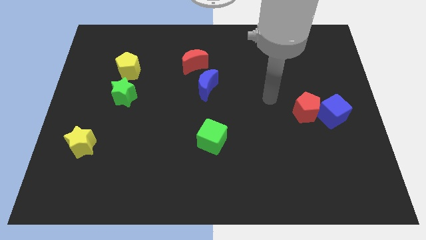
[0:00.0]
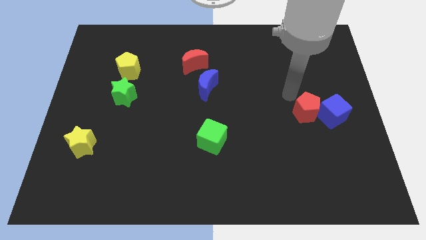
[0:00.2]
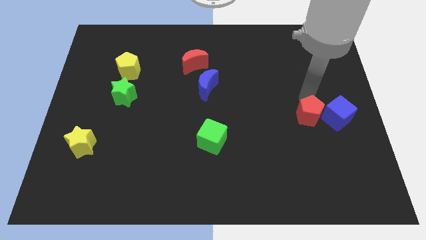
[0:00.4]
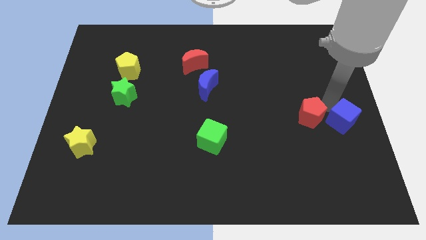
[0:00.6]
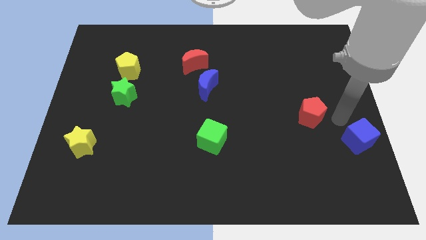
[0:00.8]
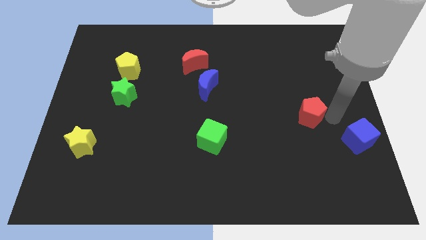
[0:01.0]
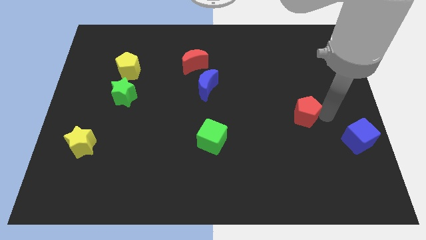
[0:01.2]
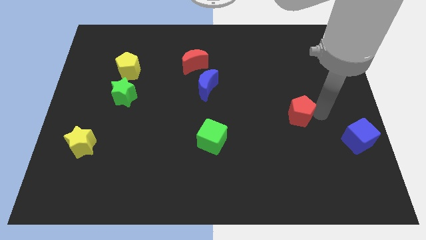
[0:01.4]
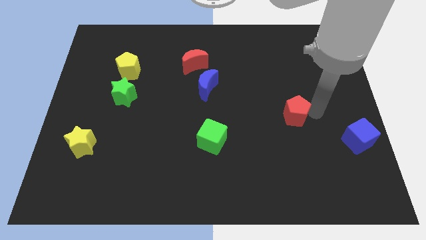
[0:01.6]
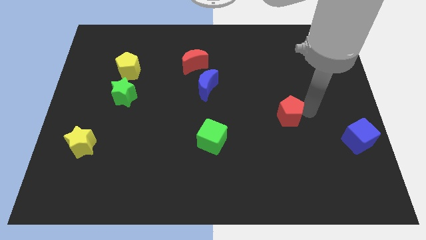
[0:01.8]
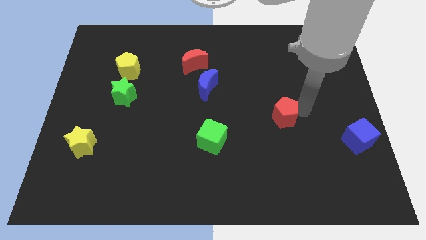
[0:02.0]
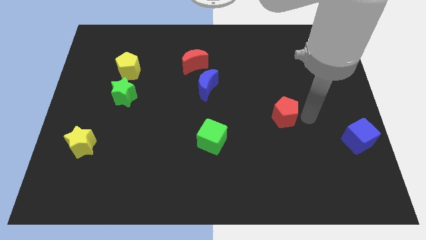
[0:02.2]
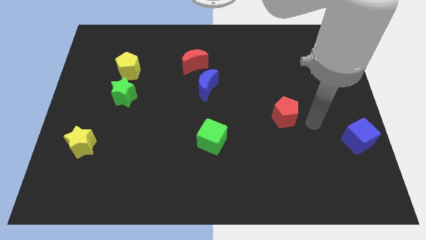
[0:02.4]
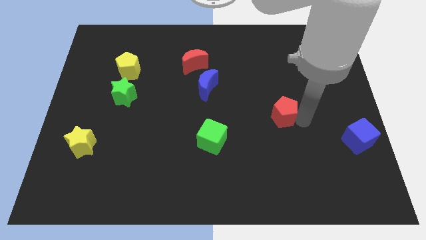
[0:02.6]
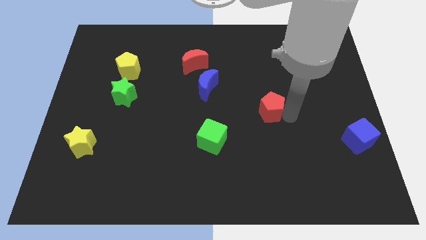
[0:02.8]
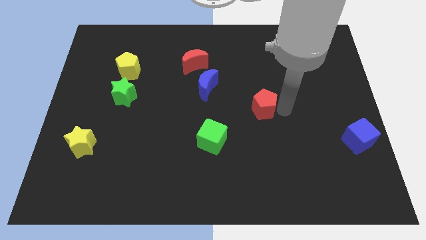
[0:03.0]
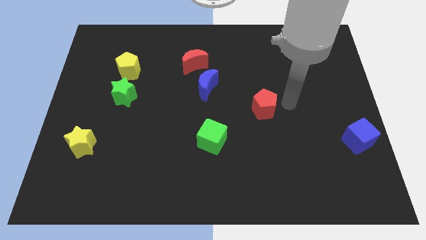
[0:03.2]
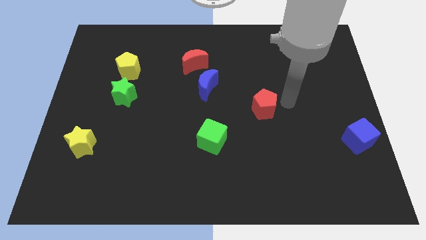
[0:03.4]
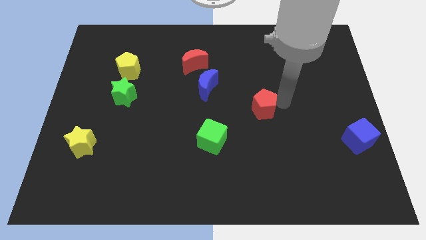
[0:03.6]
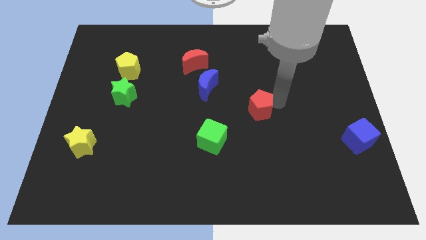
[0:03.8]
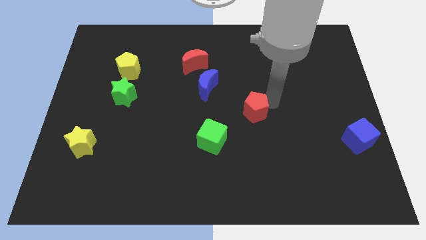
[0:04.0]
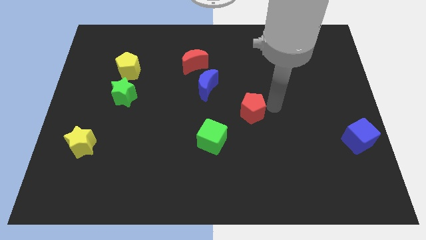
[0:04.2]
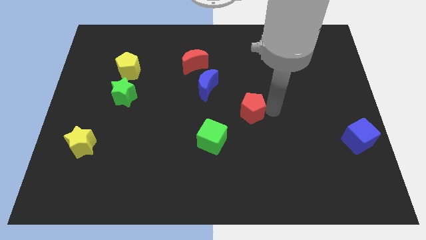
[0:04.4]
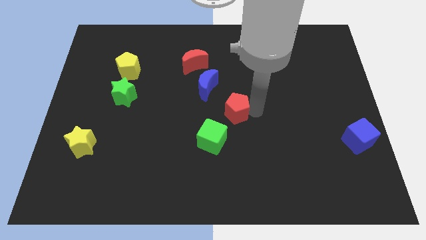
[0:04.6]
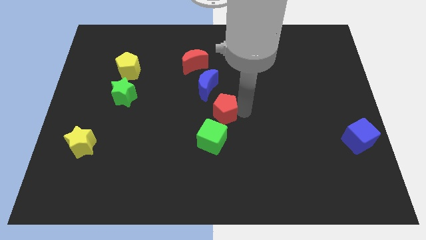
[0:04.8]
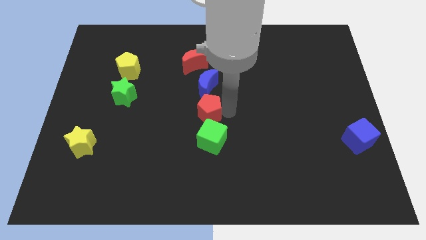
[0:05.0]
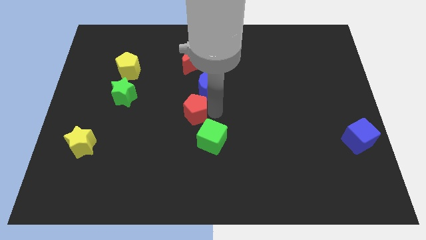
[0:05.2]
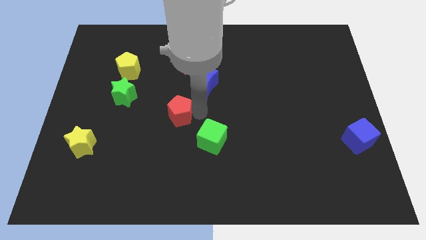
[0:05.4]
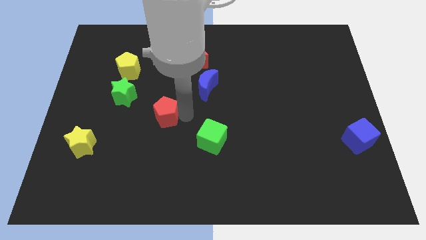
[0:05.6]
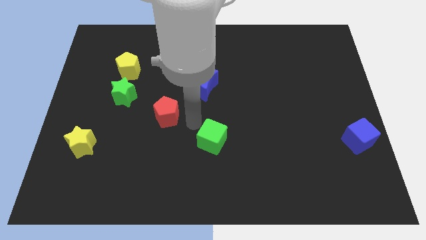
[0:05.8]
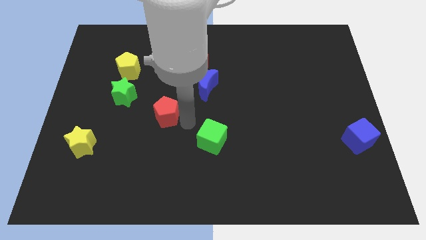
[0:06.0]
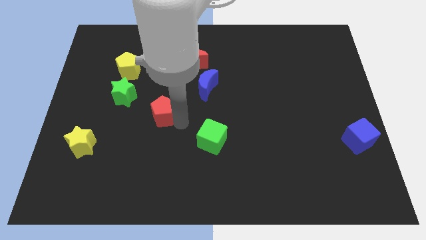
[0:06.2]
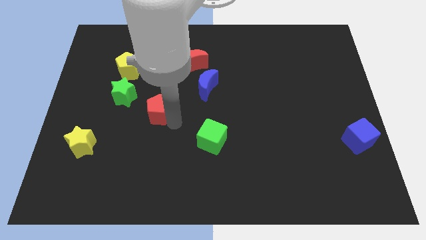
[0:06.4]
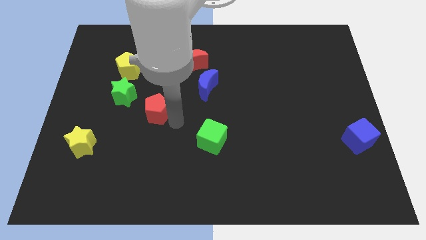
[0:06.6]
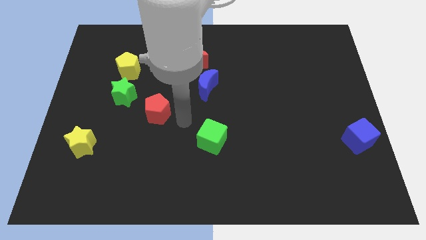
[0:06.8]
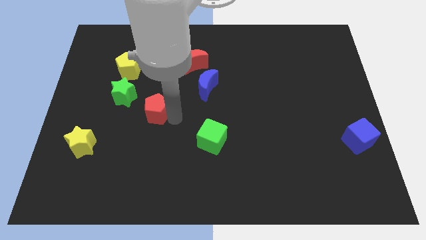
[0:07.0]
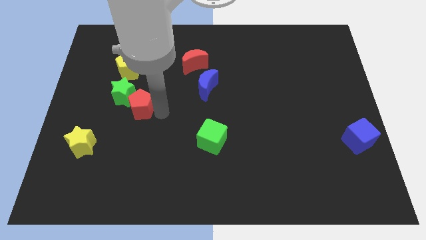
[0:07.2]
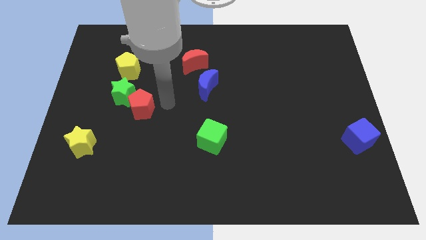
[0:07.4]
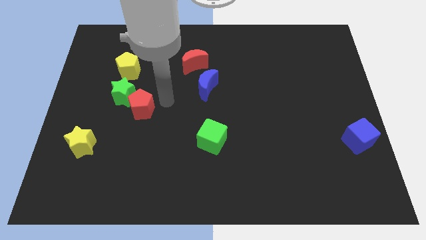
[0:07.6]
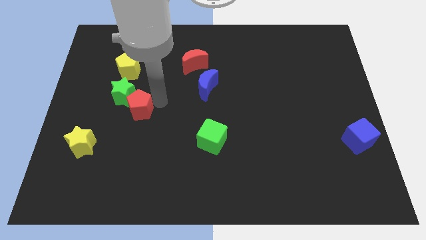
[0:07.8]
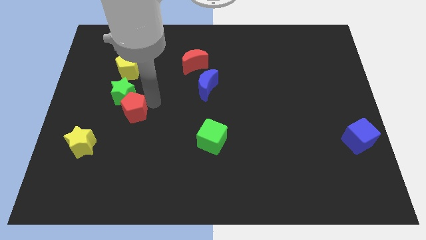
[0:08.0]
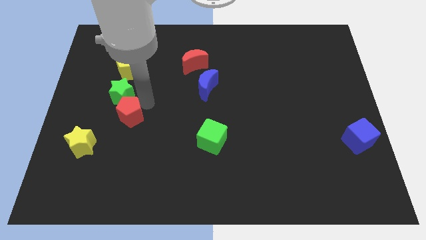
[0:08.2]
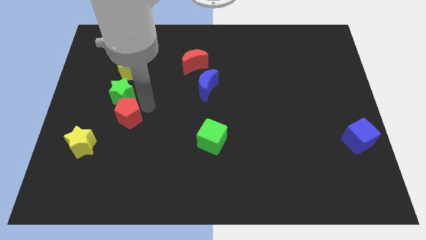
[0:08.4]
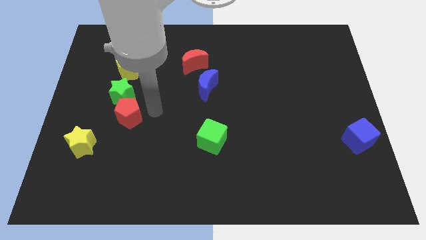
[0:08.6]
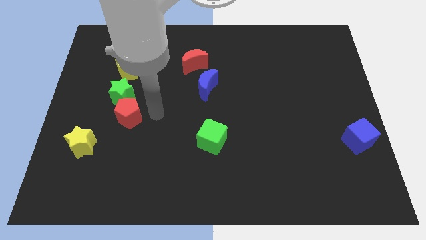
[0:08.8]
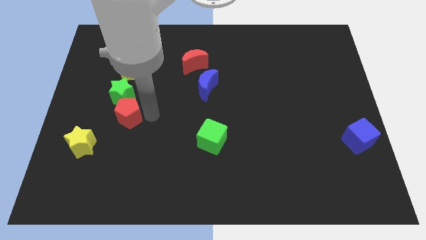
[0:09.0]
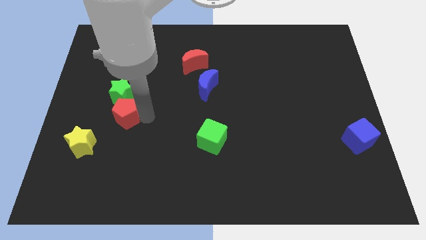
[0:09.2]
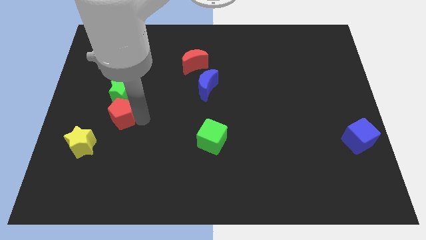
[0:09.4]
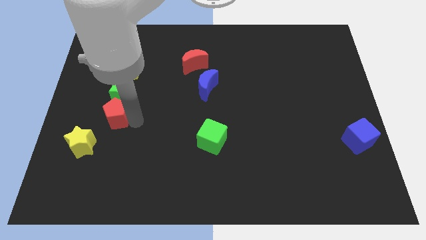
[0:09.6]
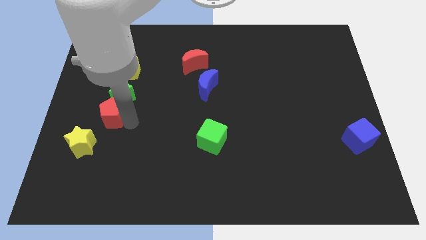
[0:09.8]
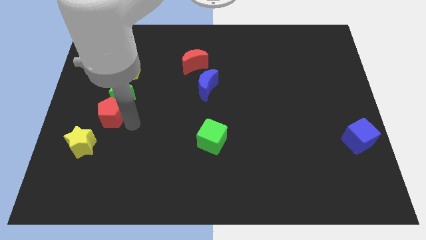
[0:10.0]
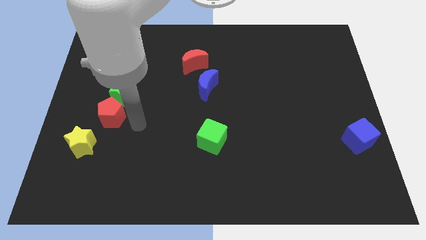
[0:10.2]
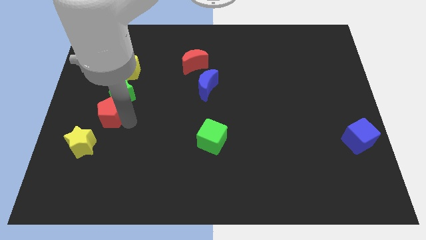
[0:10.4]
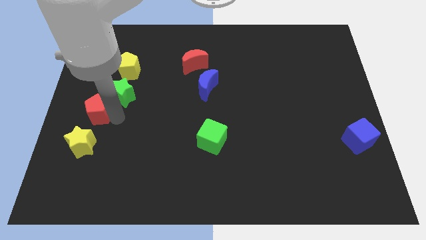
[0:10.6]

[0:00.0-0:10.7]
put the red pentagon to the center left

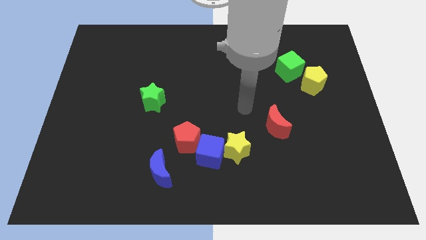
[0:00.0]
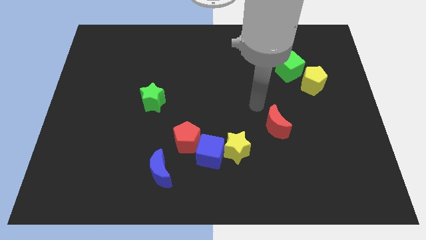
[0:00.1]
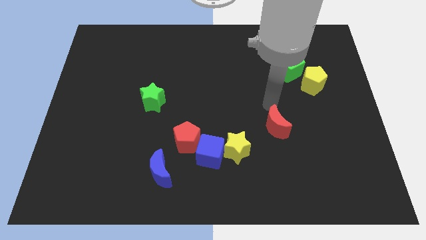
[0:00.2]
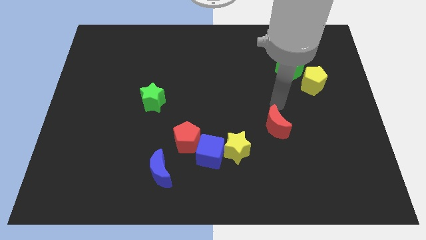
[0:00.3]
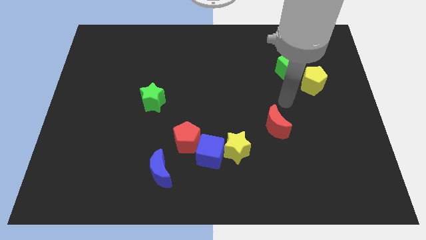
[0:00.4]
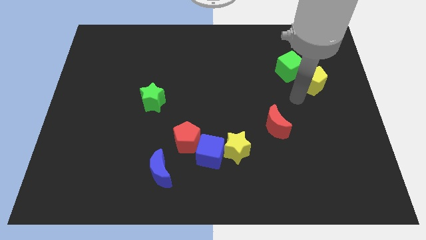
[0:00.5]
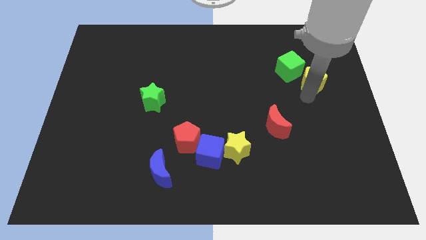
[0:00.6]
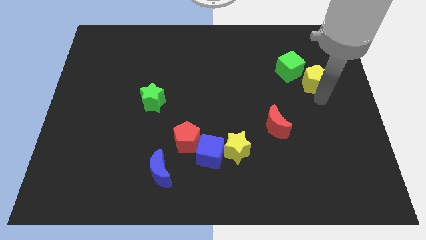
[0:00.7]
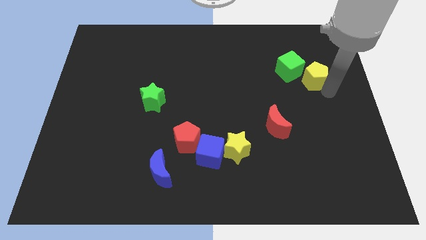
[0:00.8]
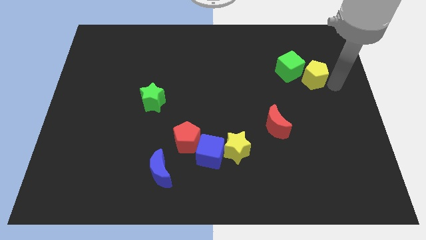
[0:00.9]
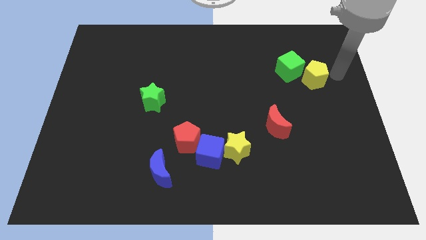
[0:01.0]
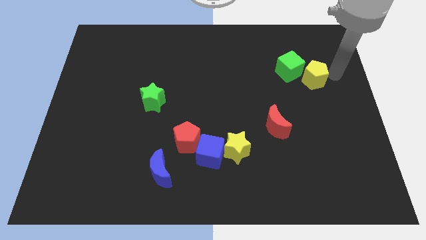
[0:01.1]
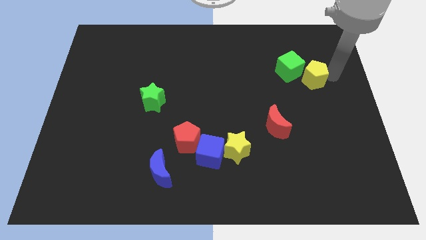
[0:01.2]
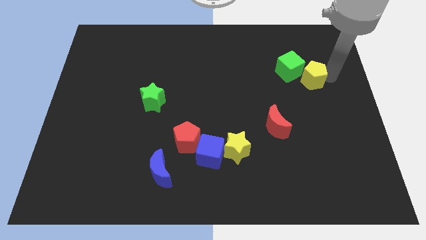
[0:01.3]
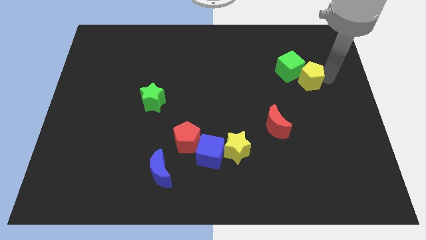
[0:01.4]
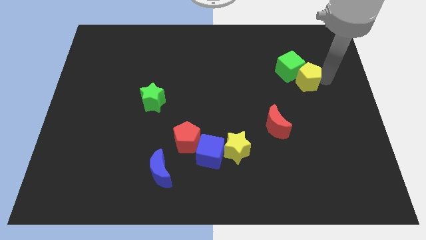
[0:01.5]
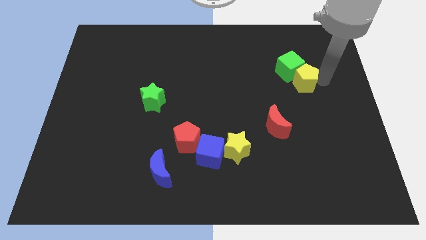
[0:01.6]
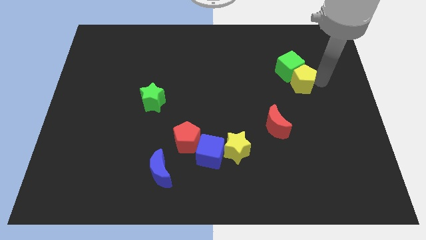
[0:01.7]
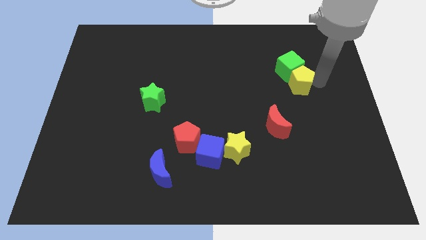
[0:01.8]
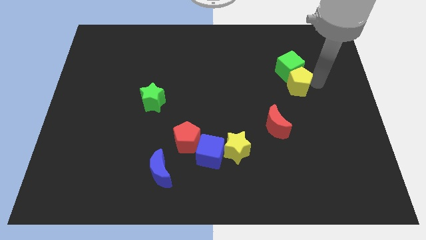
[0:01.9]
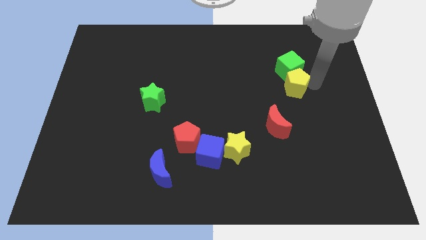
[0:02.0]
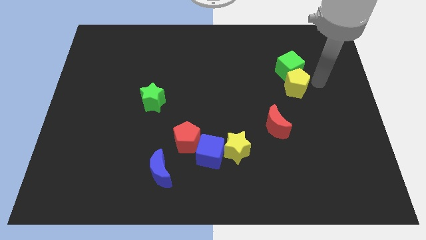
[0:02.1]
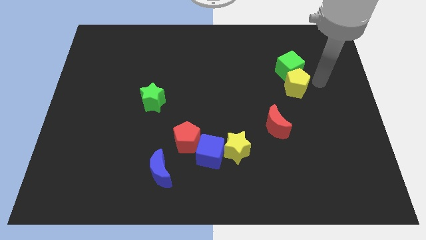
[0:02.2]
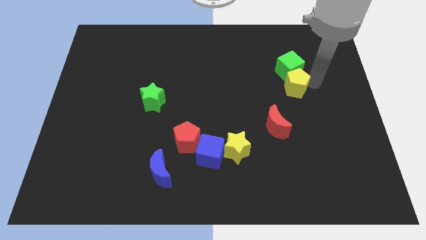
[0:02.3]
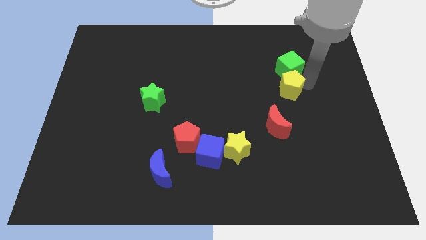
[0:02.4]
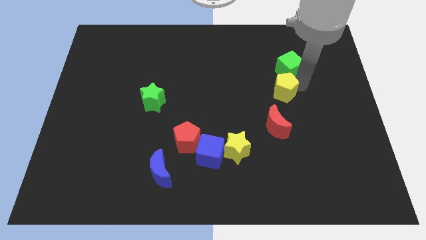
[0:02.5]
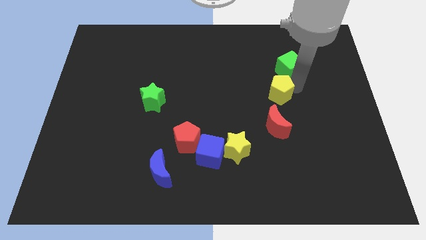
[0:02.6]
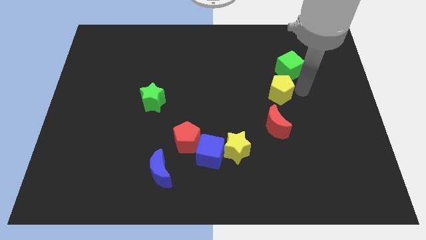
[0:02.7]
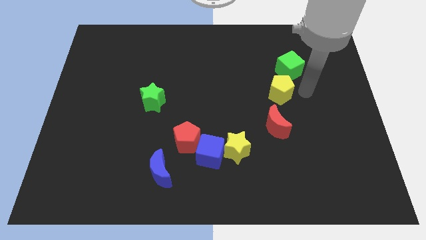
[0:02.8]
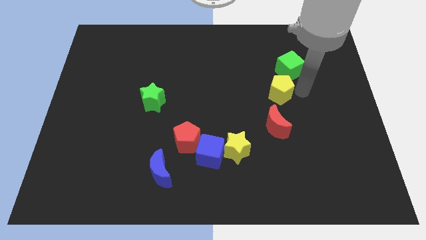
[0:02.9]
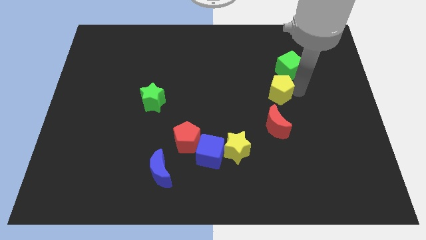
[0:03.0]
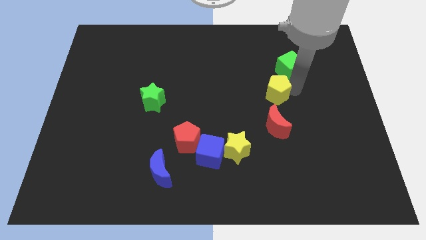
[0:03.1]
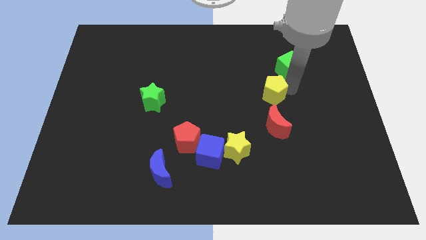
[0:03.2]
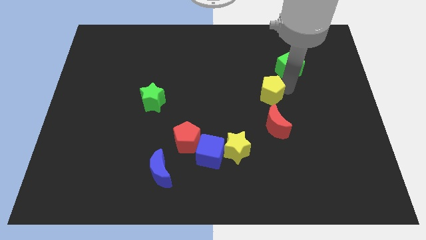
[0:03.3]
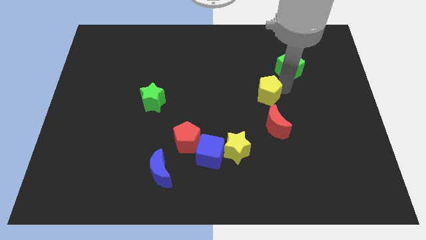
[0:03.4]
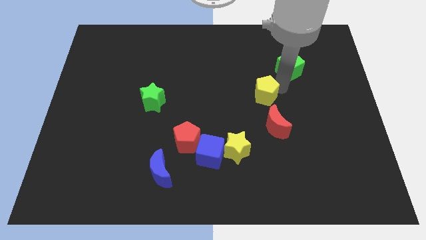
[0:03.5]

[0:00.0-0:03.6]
slide the yellow pentagon to the middle
